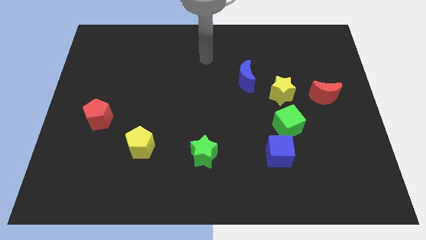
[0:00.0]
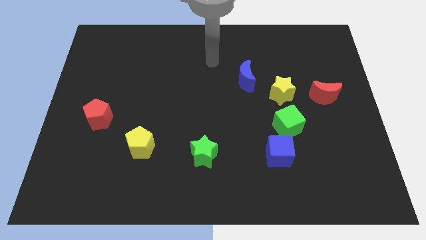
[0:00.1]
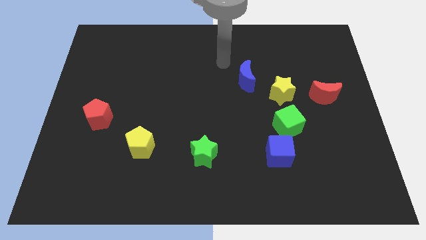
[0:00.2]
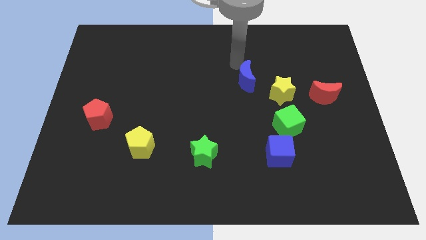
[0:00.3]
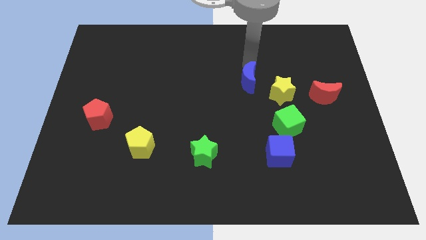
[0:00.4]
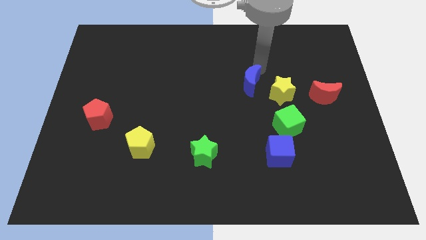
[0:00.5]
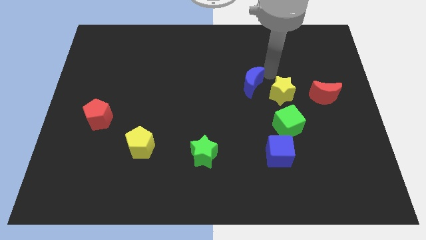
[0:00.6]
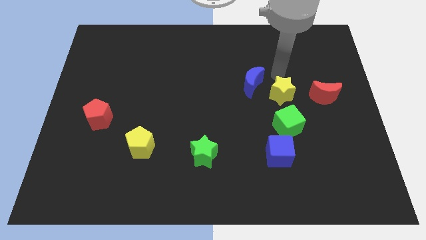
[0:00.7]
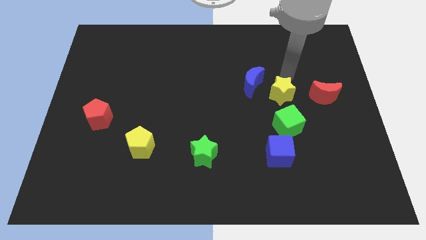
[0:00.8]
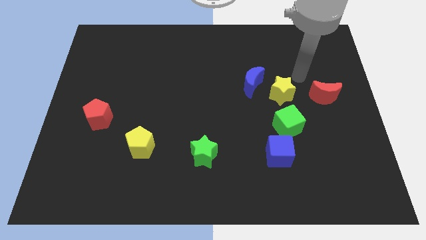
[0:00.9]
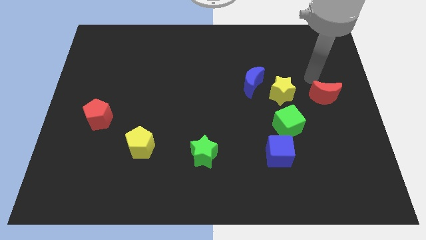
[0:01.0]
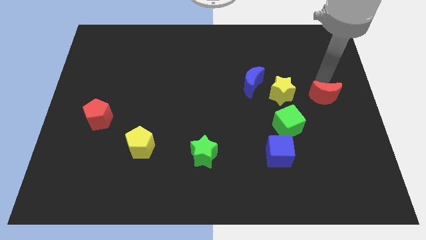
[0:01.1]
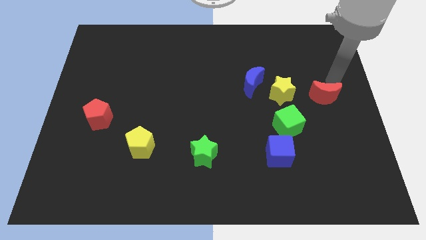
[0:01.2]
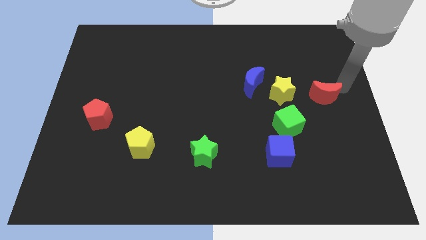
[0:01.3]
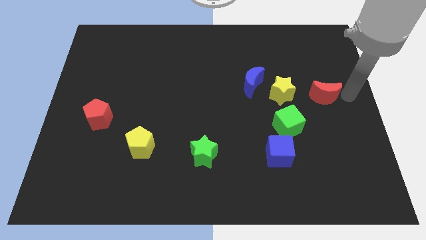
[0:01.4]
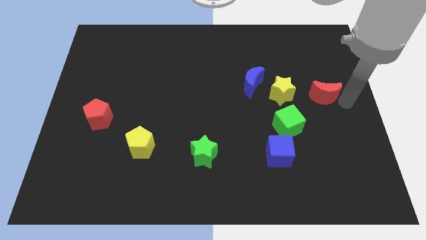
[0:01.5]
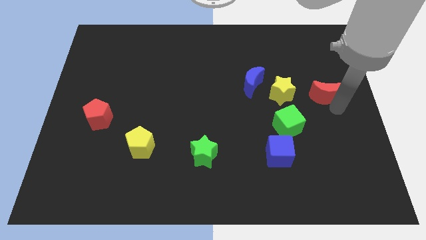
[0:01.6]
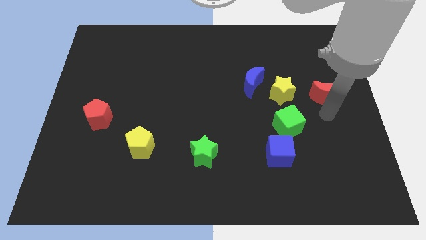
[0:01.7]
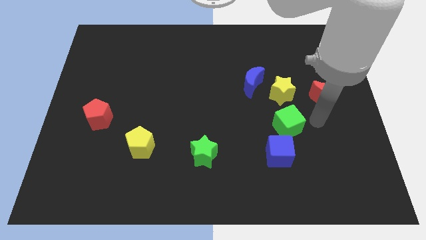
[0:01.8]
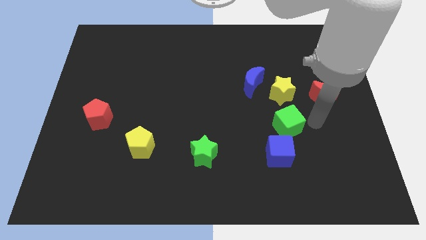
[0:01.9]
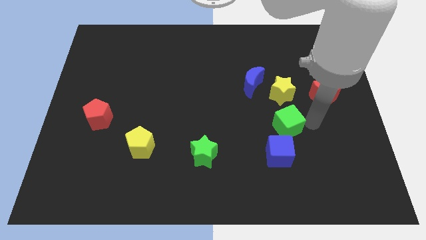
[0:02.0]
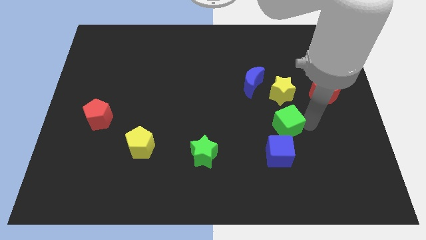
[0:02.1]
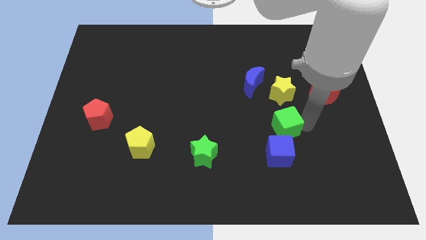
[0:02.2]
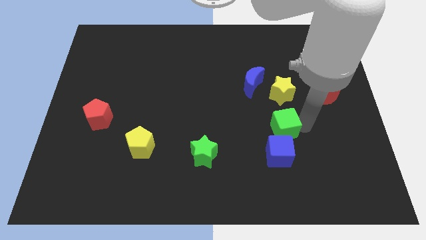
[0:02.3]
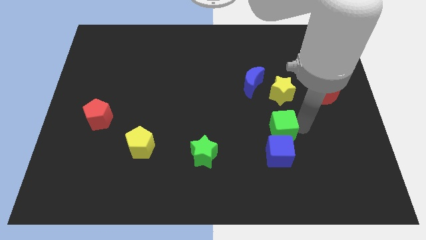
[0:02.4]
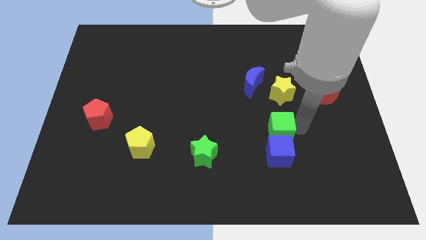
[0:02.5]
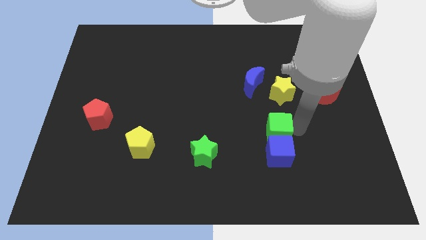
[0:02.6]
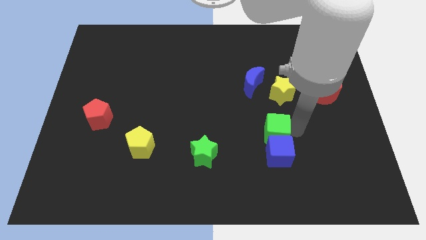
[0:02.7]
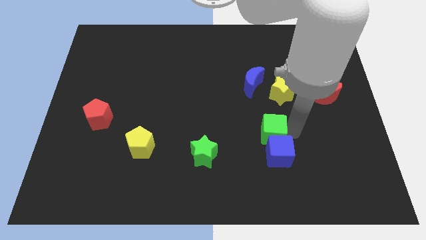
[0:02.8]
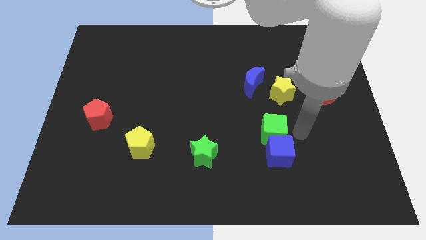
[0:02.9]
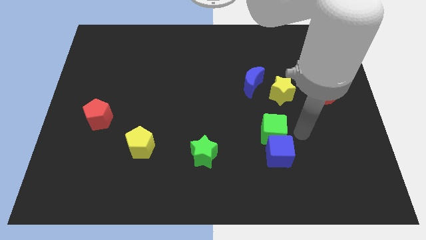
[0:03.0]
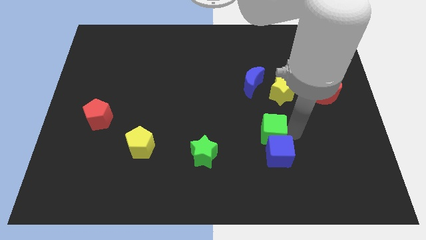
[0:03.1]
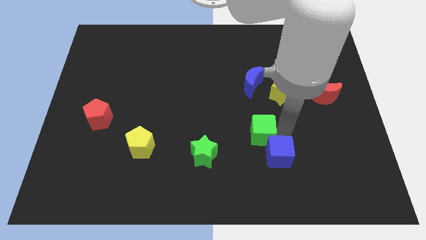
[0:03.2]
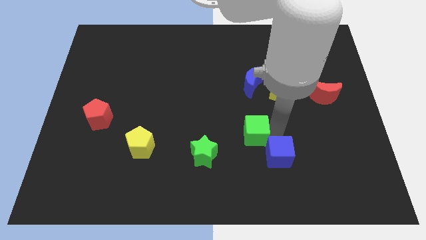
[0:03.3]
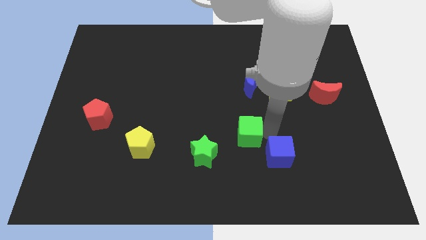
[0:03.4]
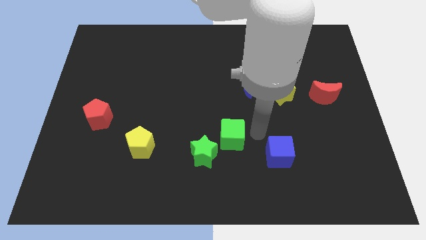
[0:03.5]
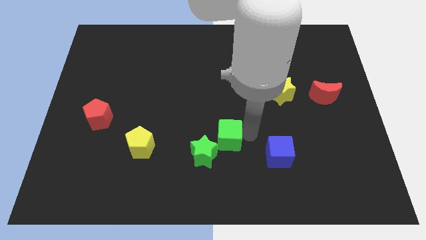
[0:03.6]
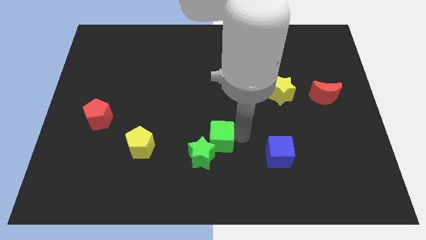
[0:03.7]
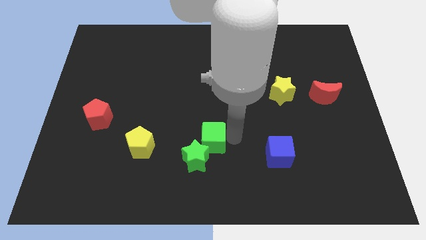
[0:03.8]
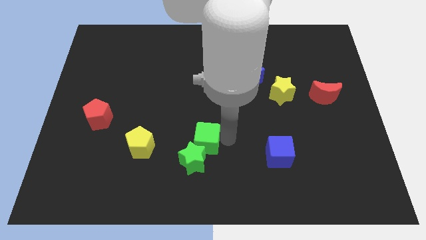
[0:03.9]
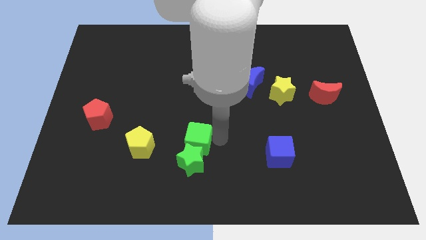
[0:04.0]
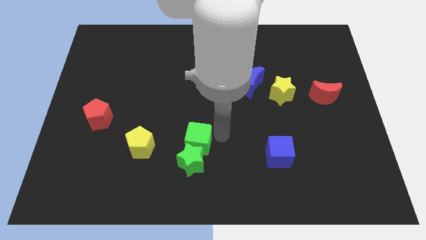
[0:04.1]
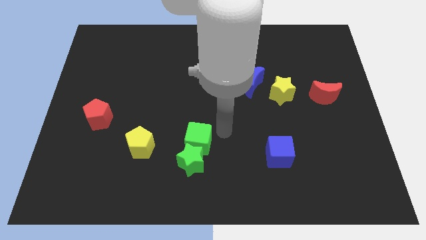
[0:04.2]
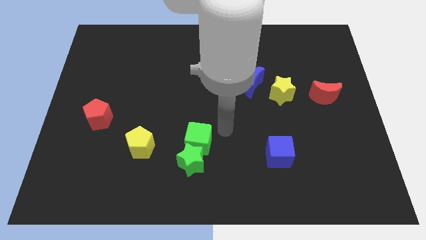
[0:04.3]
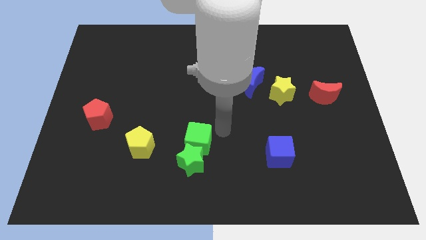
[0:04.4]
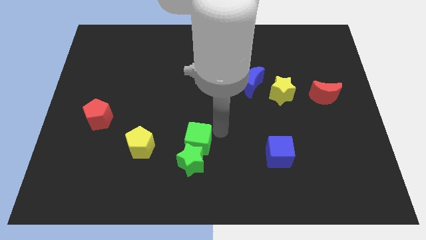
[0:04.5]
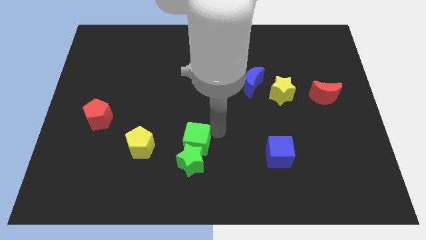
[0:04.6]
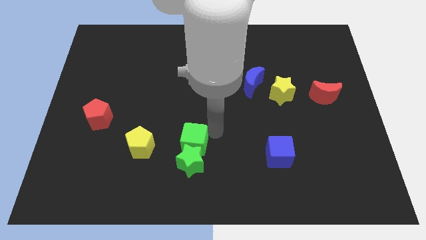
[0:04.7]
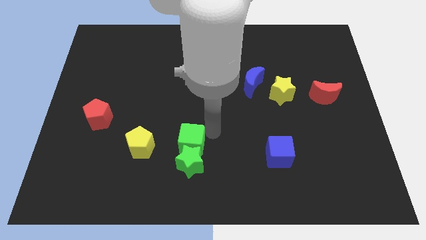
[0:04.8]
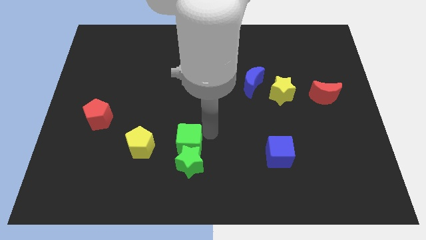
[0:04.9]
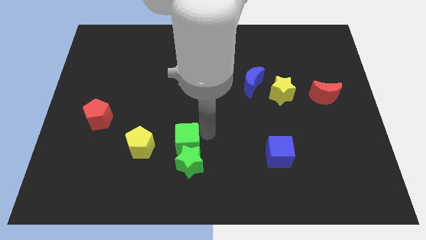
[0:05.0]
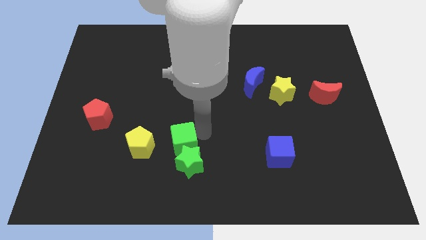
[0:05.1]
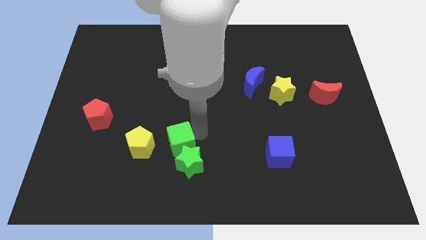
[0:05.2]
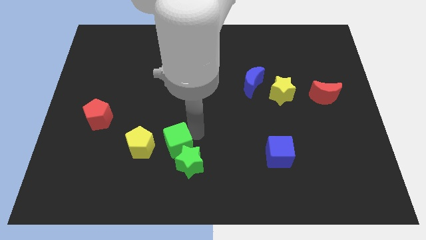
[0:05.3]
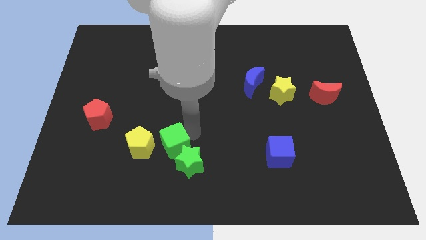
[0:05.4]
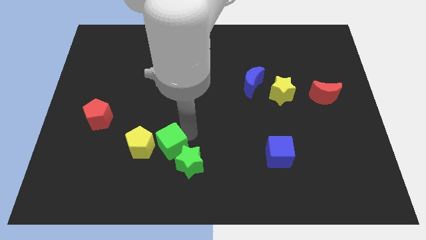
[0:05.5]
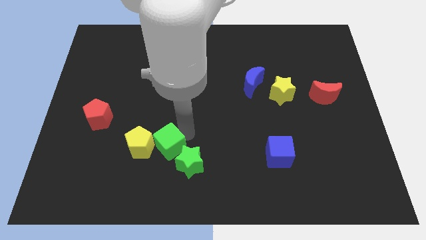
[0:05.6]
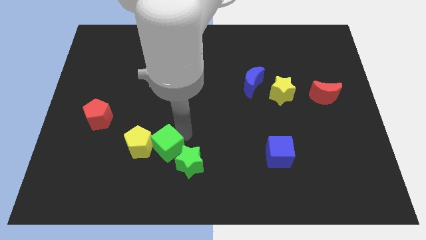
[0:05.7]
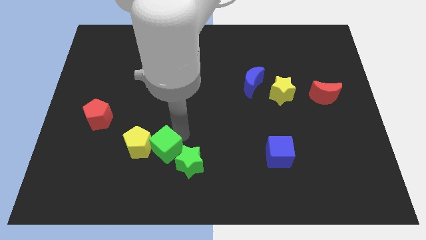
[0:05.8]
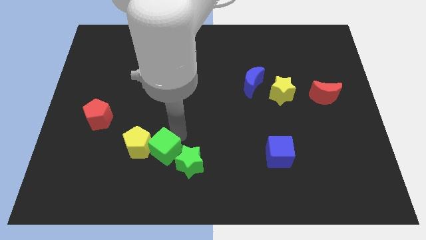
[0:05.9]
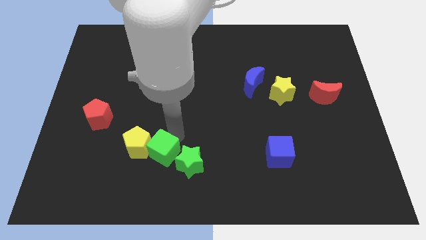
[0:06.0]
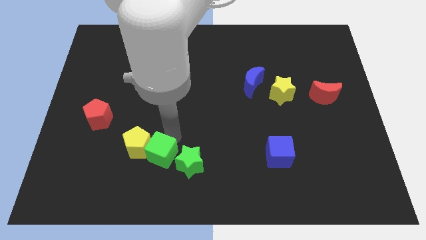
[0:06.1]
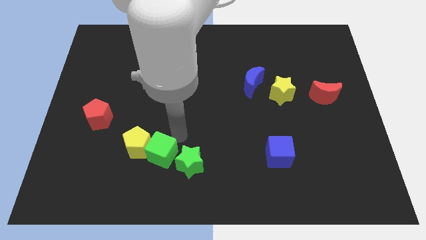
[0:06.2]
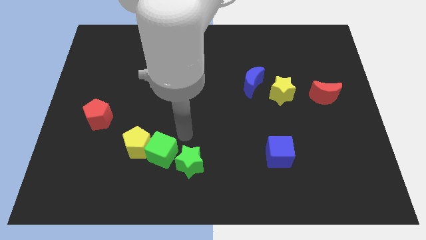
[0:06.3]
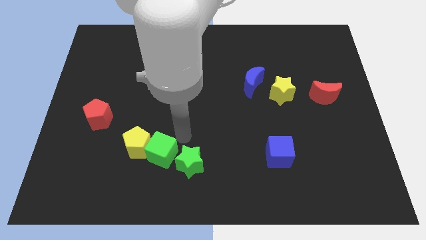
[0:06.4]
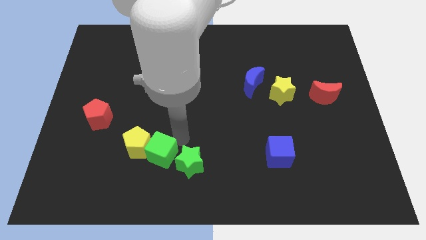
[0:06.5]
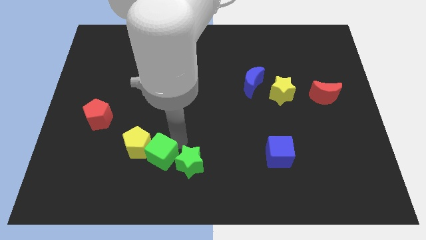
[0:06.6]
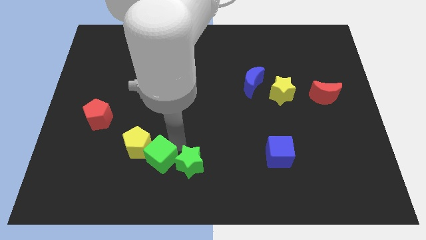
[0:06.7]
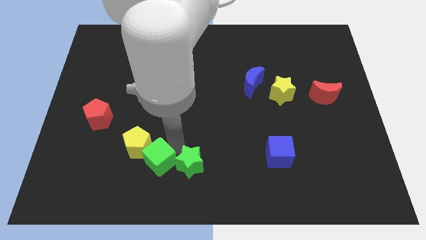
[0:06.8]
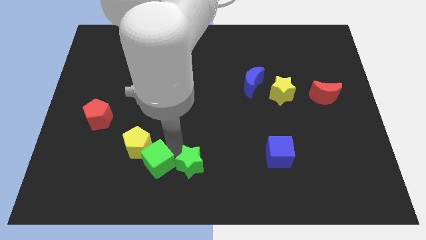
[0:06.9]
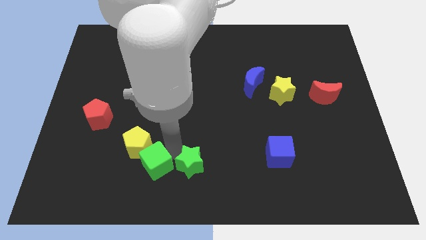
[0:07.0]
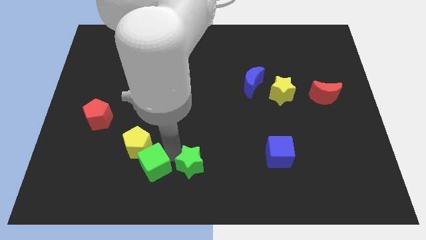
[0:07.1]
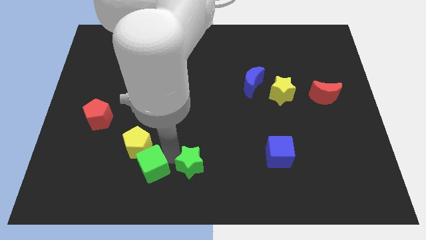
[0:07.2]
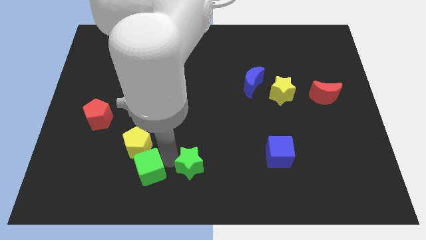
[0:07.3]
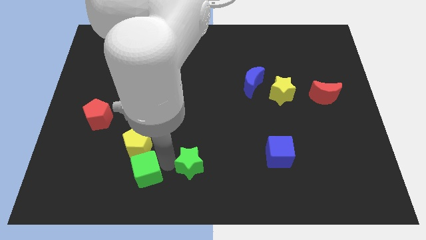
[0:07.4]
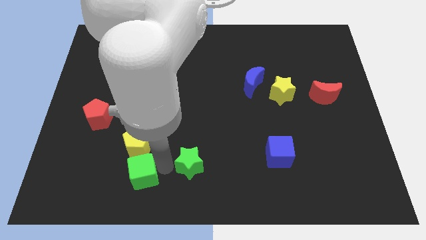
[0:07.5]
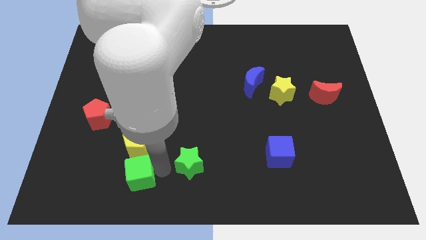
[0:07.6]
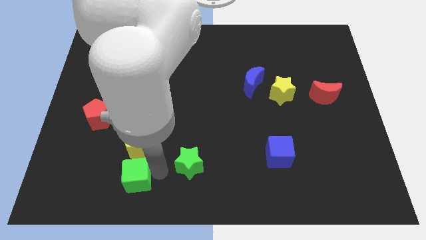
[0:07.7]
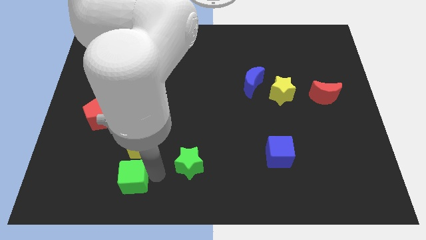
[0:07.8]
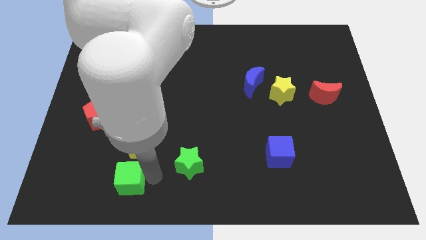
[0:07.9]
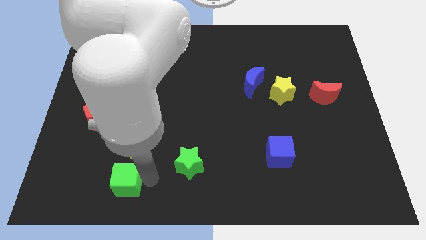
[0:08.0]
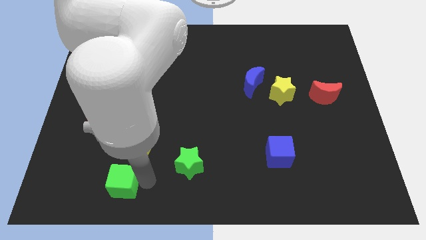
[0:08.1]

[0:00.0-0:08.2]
move the green cube diagonally down and to the left of the yellow pentagon
